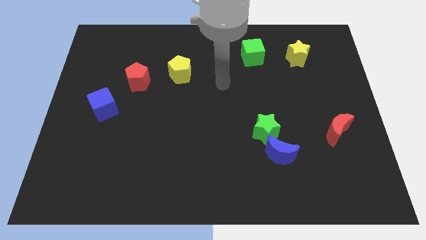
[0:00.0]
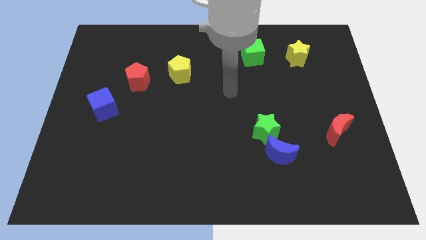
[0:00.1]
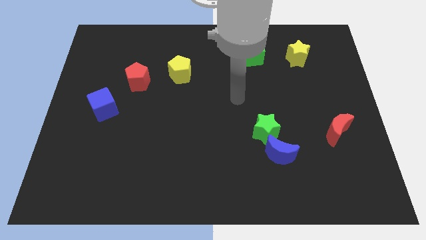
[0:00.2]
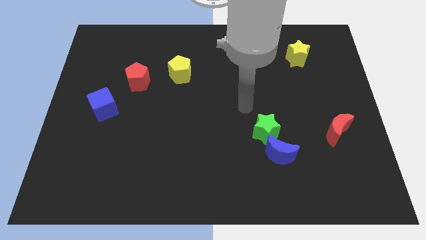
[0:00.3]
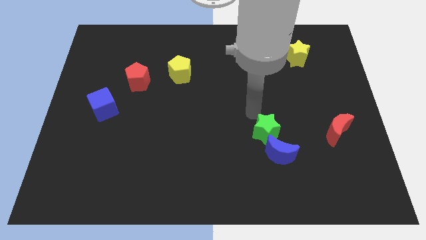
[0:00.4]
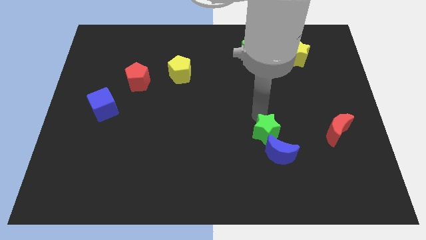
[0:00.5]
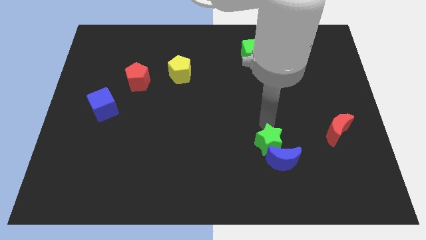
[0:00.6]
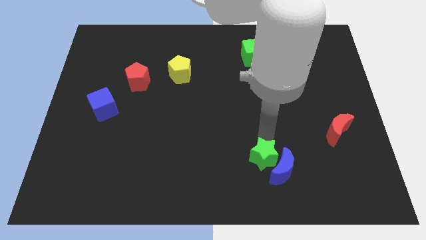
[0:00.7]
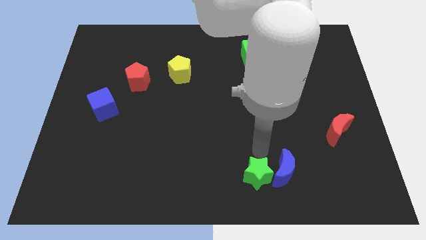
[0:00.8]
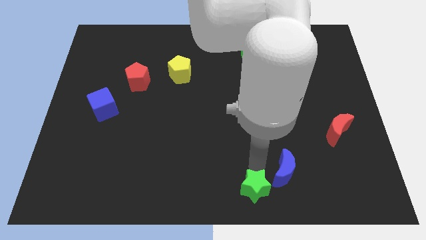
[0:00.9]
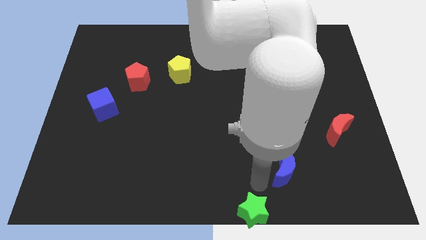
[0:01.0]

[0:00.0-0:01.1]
separate the blue moon from the green star

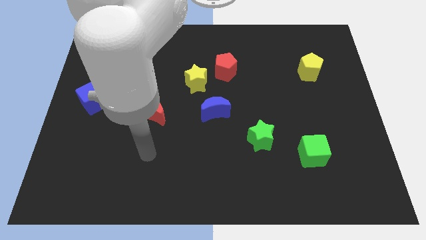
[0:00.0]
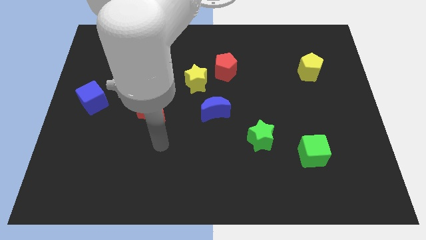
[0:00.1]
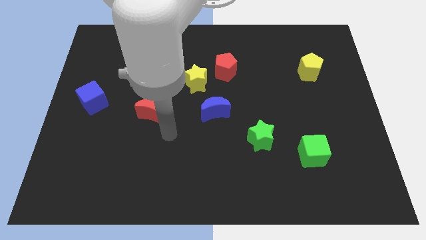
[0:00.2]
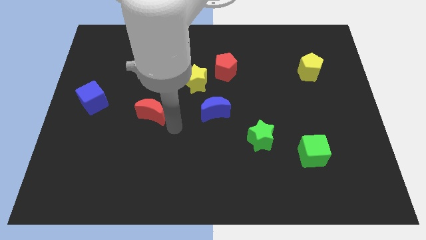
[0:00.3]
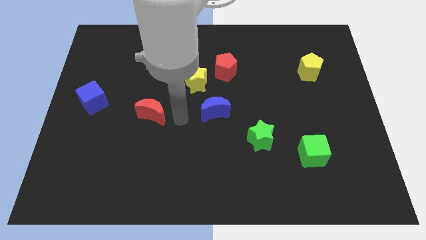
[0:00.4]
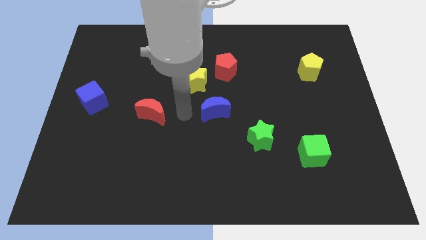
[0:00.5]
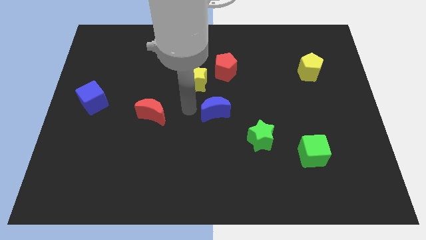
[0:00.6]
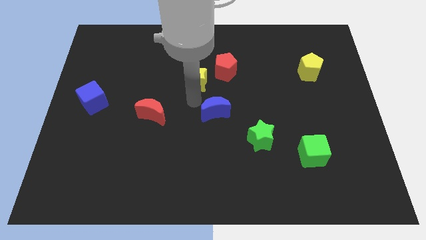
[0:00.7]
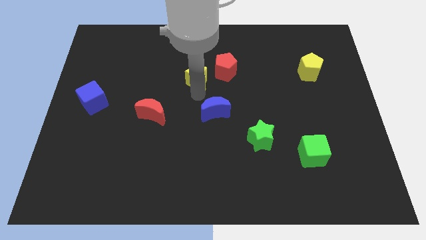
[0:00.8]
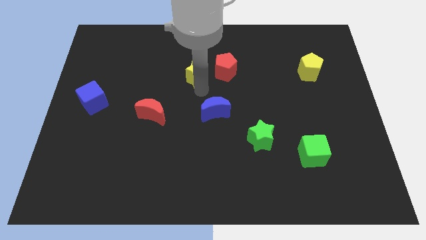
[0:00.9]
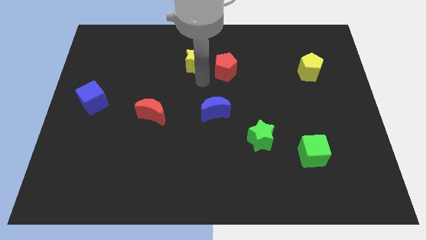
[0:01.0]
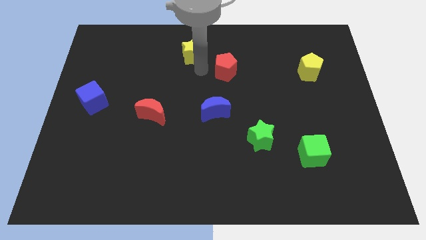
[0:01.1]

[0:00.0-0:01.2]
move the red pentagon away from the yellow star

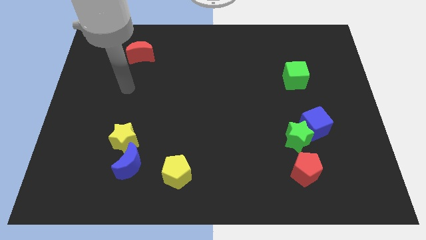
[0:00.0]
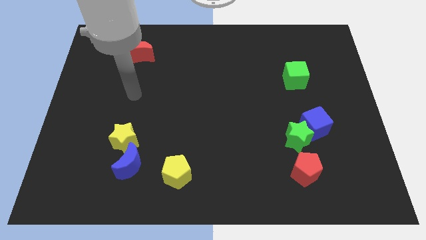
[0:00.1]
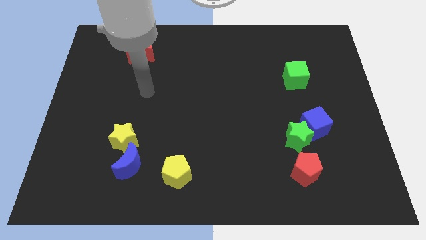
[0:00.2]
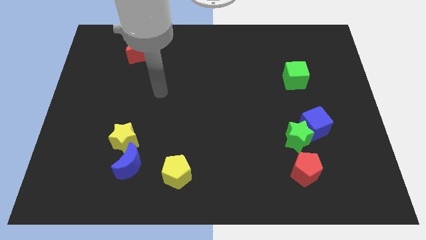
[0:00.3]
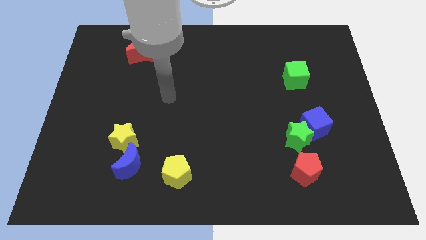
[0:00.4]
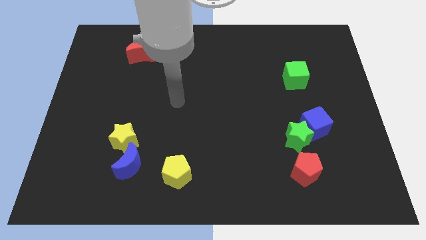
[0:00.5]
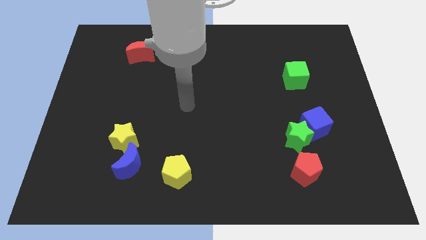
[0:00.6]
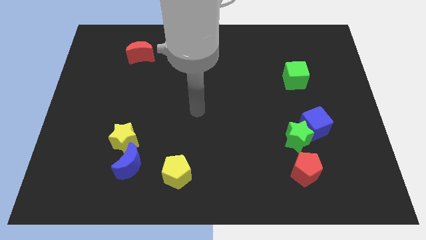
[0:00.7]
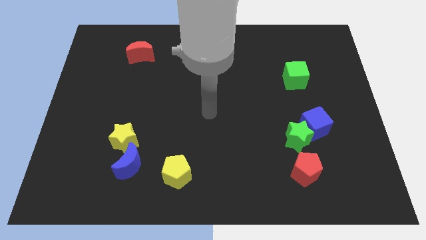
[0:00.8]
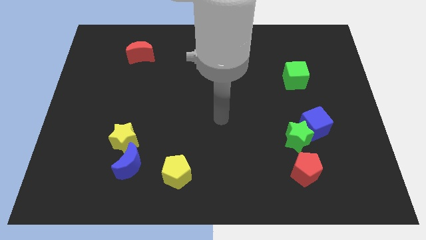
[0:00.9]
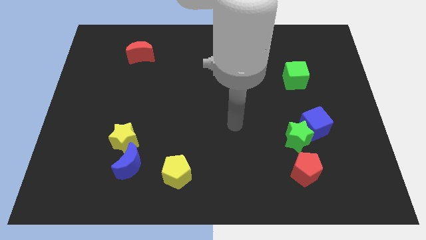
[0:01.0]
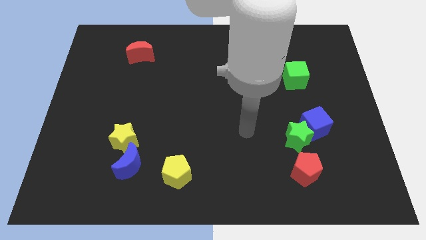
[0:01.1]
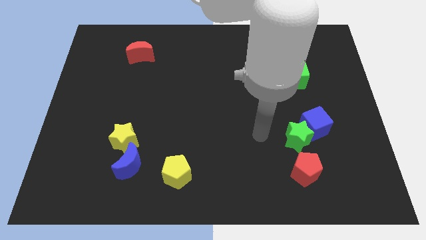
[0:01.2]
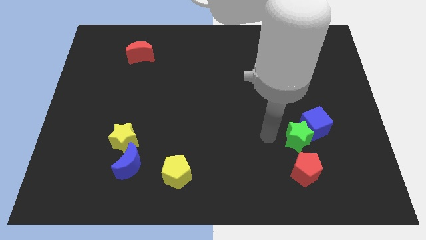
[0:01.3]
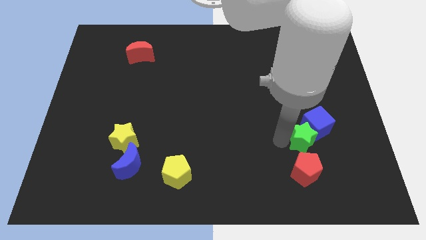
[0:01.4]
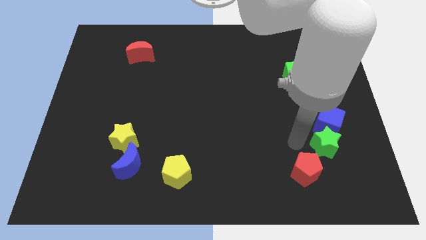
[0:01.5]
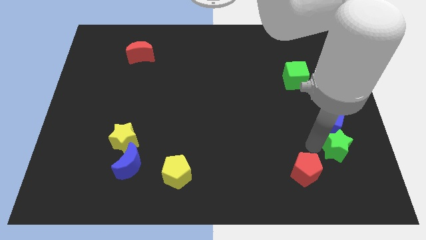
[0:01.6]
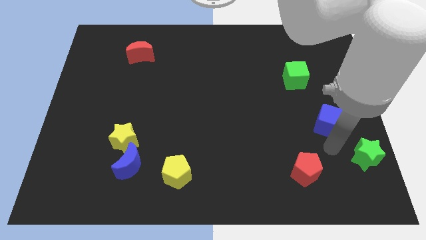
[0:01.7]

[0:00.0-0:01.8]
separate the blue cube from the green star

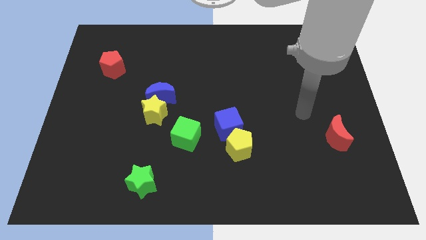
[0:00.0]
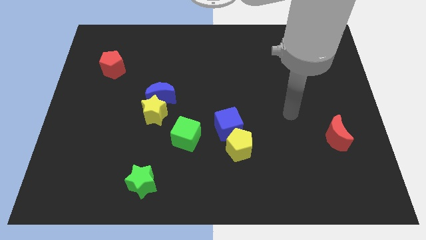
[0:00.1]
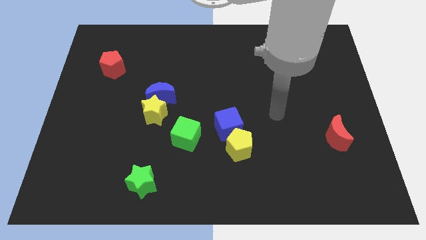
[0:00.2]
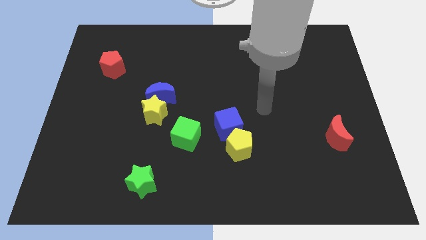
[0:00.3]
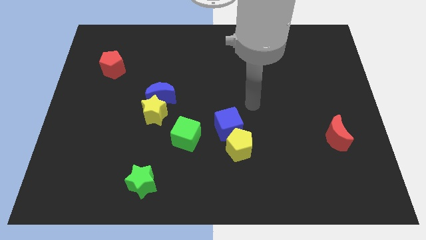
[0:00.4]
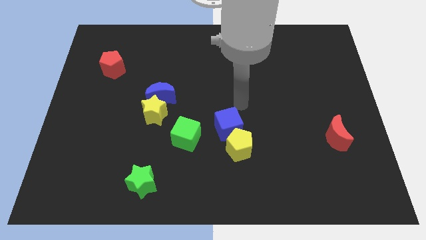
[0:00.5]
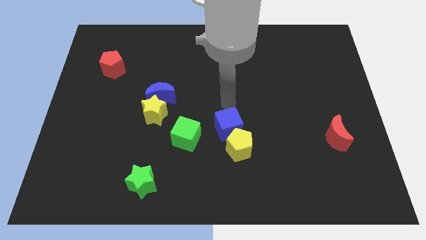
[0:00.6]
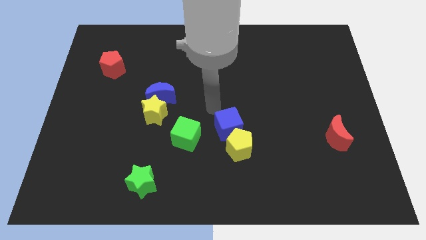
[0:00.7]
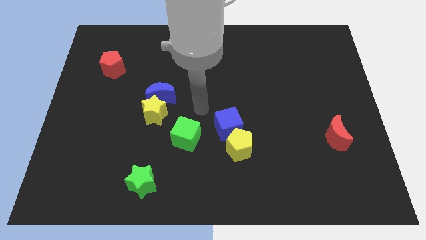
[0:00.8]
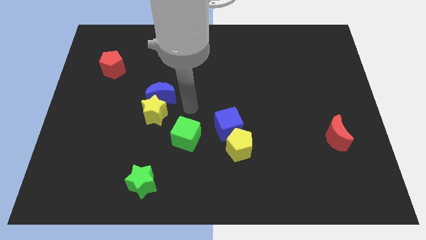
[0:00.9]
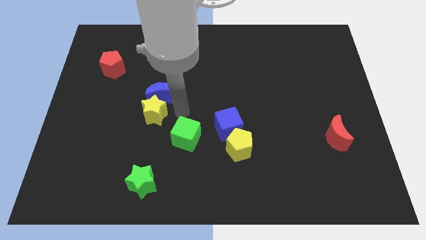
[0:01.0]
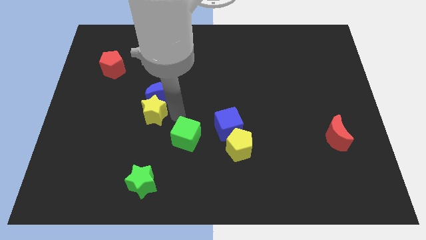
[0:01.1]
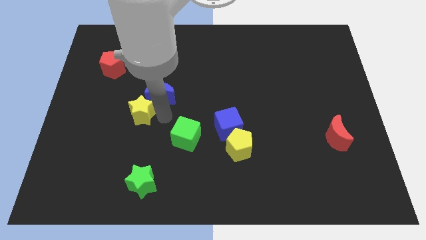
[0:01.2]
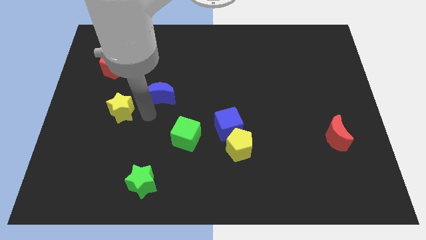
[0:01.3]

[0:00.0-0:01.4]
separate the blue moon from the yellow star

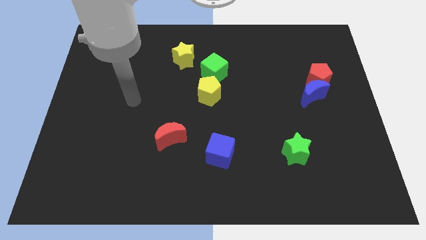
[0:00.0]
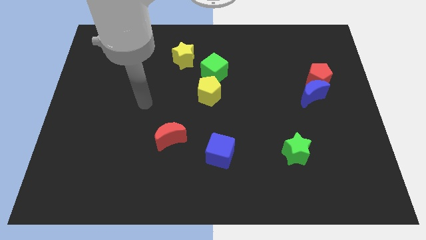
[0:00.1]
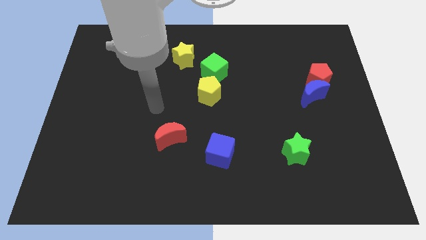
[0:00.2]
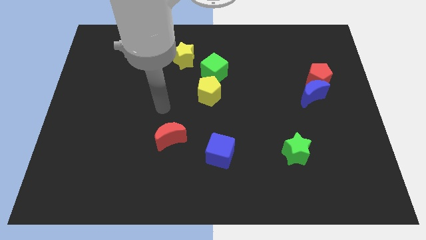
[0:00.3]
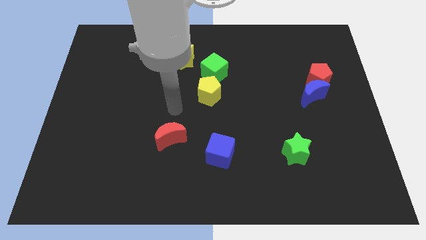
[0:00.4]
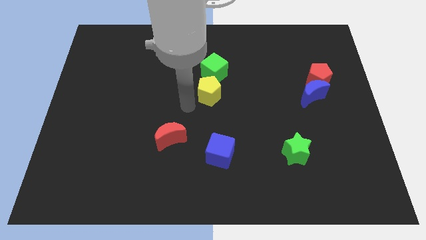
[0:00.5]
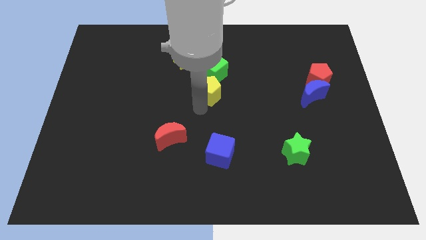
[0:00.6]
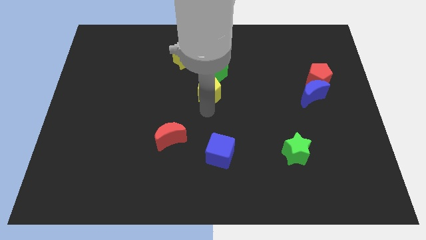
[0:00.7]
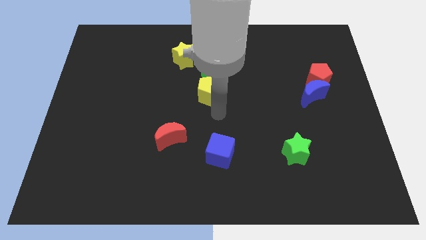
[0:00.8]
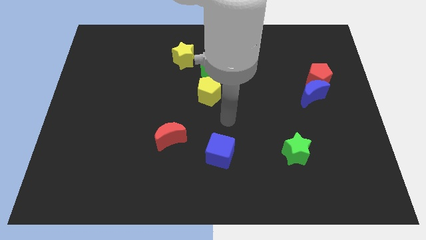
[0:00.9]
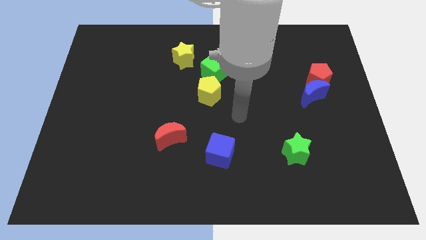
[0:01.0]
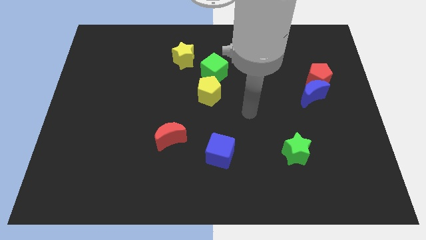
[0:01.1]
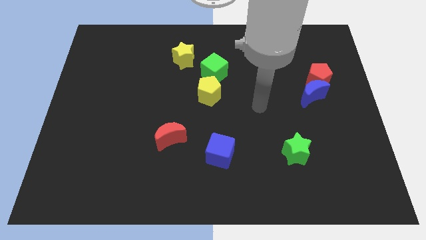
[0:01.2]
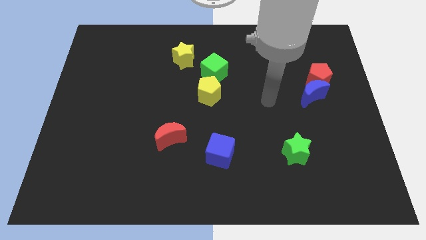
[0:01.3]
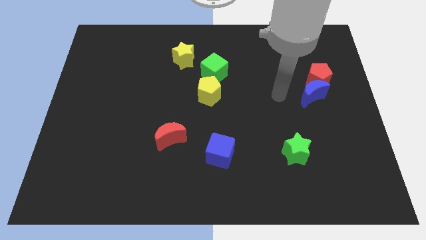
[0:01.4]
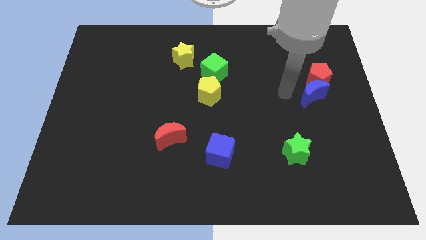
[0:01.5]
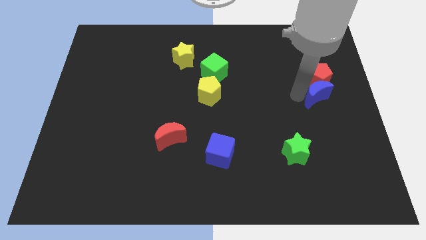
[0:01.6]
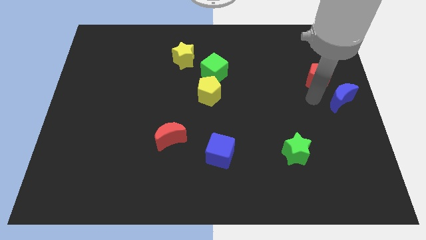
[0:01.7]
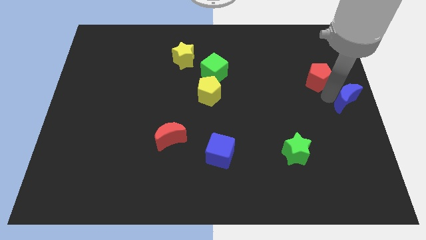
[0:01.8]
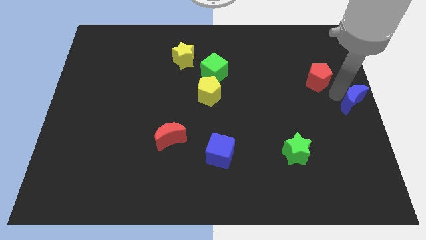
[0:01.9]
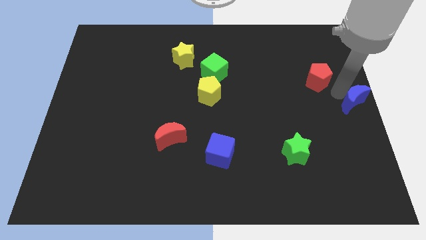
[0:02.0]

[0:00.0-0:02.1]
move the red pentagon away from the blue moon

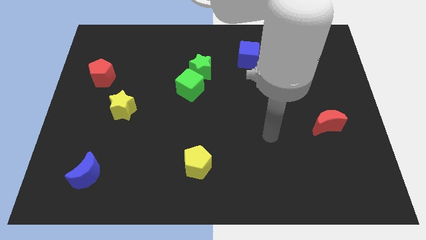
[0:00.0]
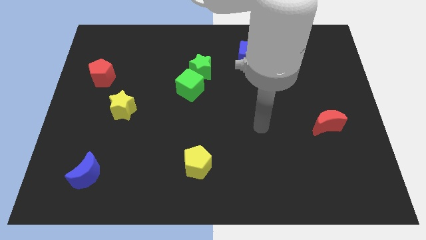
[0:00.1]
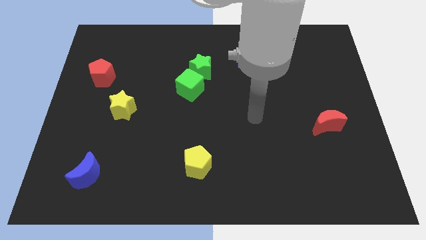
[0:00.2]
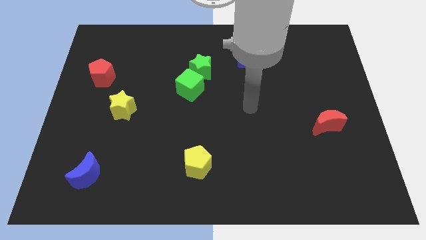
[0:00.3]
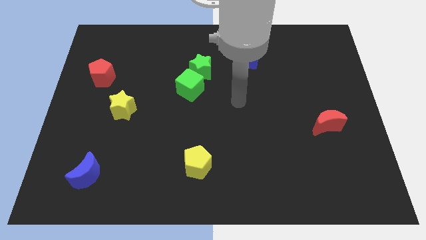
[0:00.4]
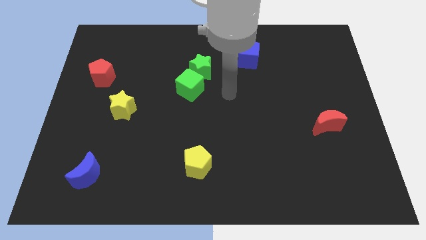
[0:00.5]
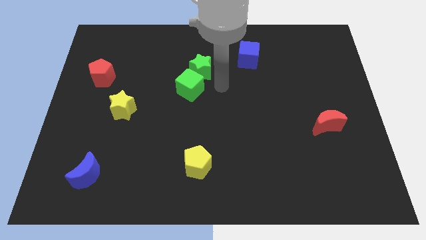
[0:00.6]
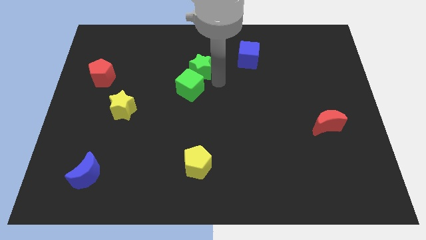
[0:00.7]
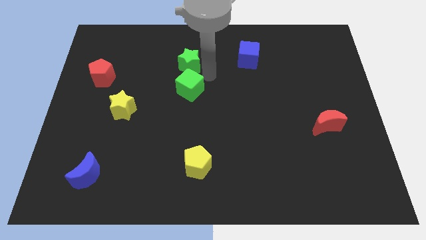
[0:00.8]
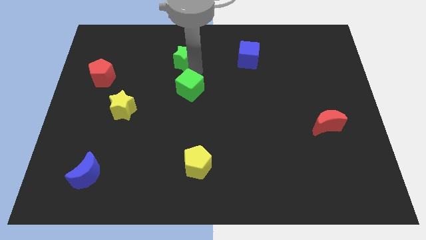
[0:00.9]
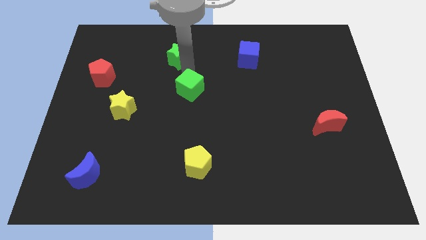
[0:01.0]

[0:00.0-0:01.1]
separate the green cube from the green star

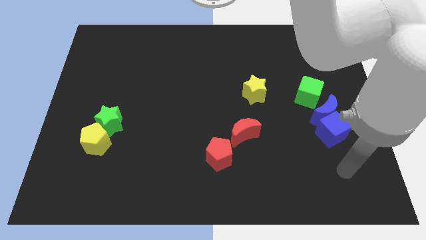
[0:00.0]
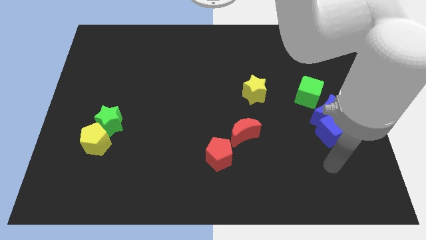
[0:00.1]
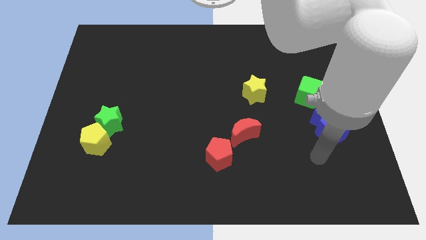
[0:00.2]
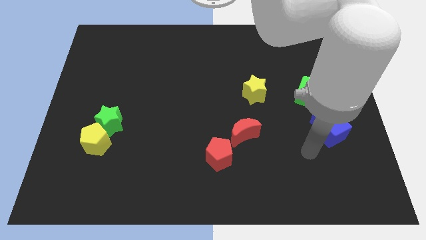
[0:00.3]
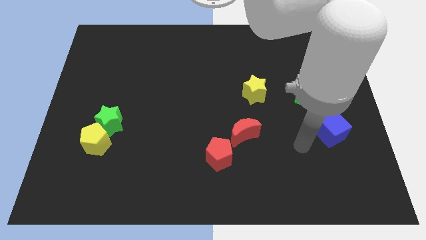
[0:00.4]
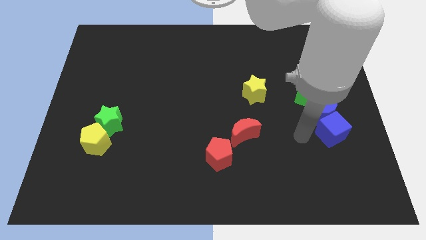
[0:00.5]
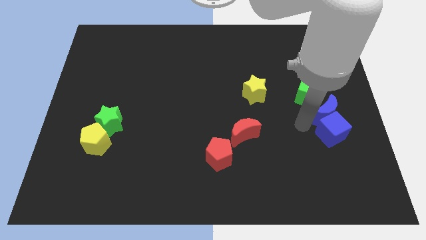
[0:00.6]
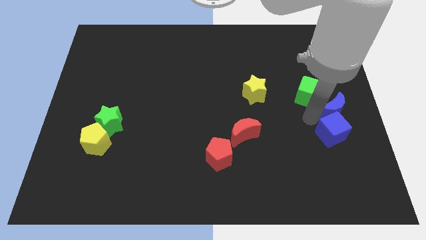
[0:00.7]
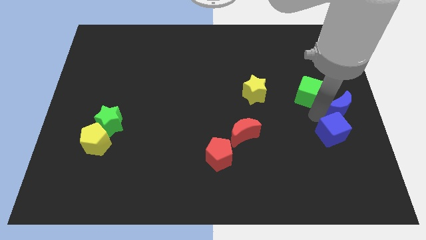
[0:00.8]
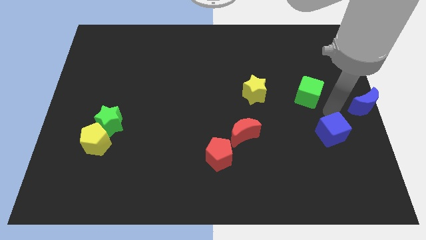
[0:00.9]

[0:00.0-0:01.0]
move the blue cube away from the blue moon
